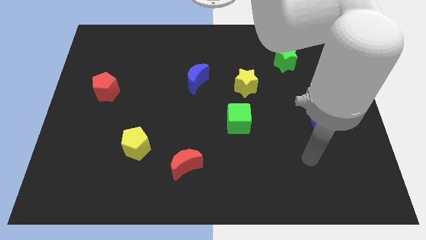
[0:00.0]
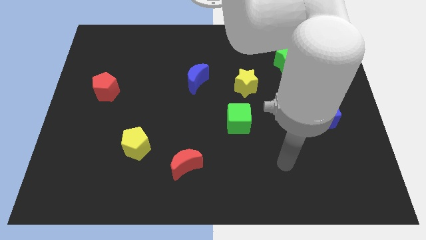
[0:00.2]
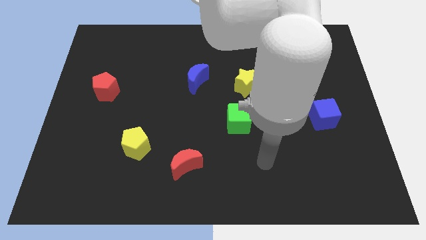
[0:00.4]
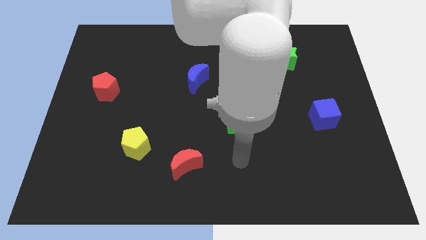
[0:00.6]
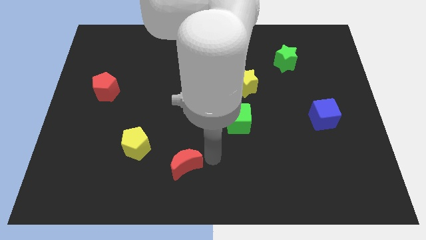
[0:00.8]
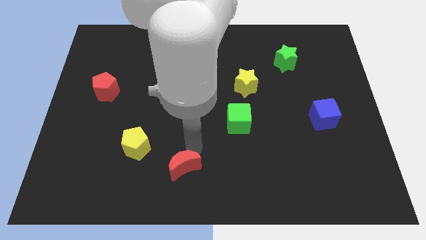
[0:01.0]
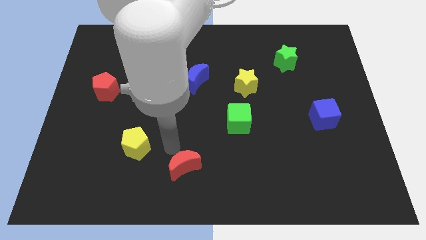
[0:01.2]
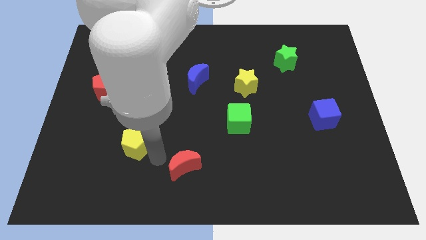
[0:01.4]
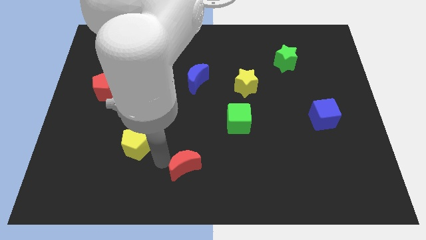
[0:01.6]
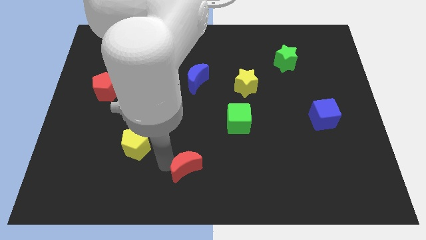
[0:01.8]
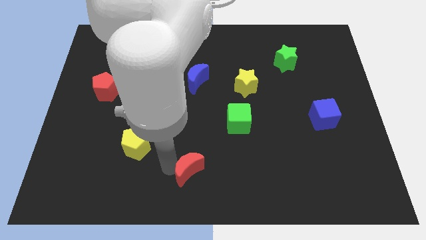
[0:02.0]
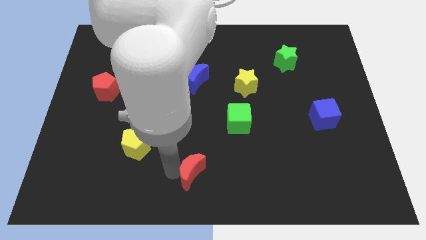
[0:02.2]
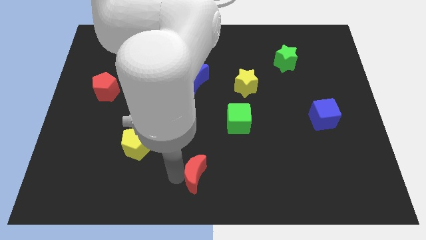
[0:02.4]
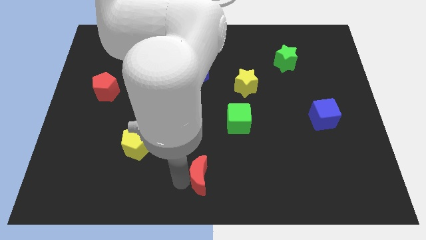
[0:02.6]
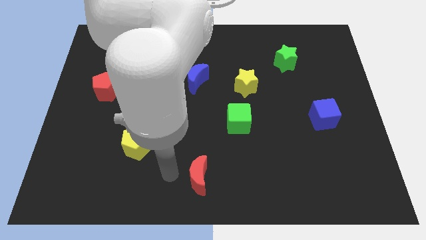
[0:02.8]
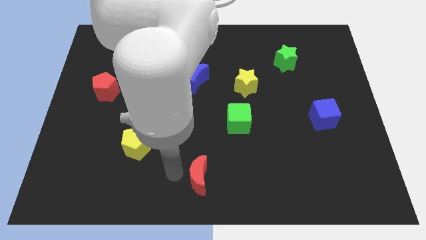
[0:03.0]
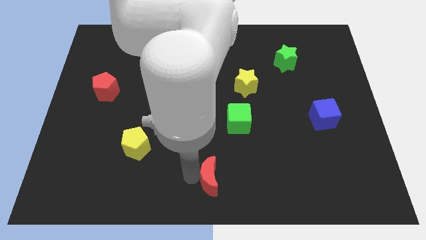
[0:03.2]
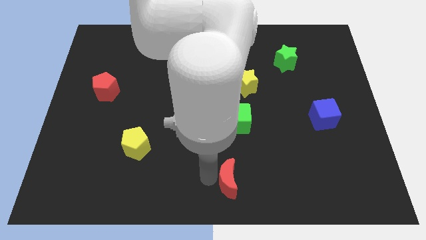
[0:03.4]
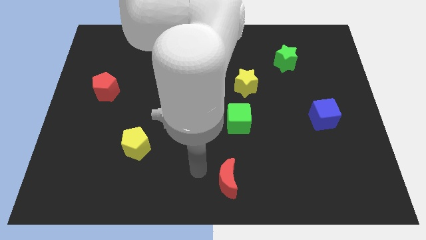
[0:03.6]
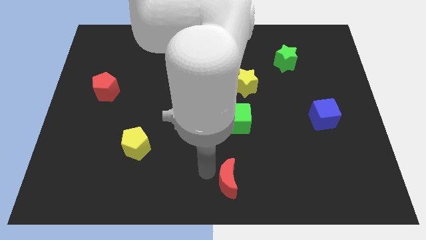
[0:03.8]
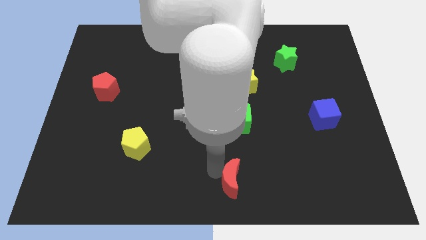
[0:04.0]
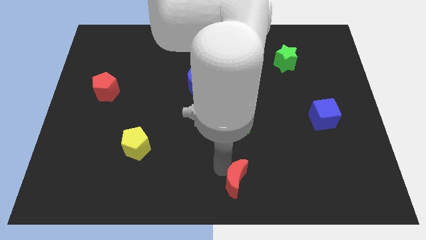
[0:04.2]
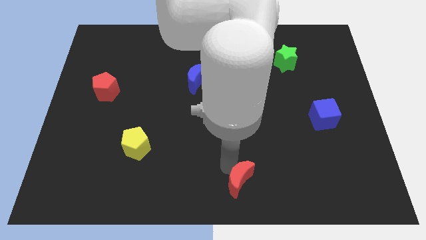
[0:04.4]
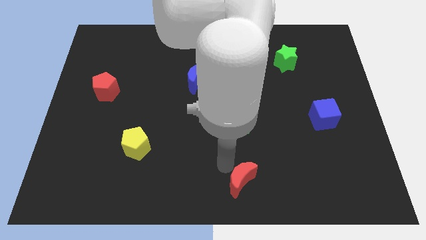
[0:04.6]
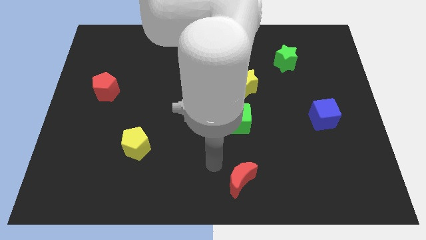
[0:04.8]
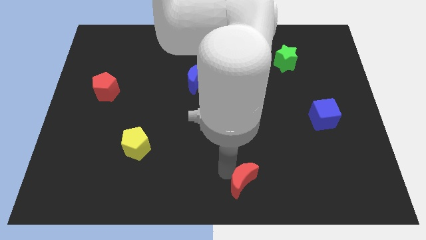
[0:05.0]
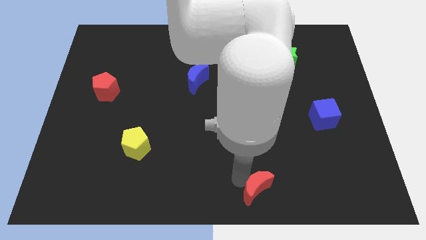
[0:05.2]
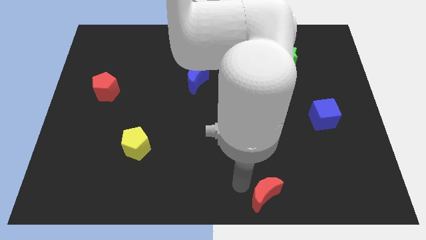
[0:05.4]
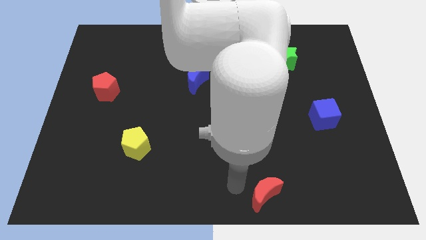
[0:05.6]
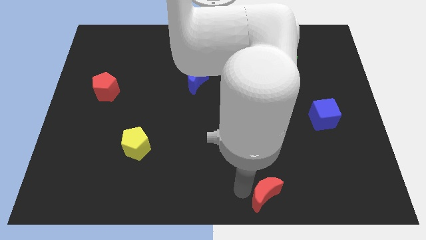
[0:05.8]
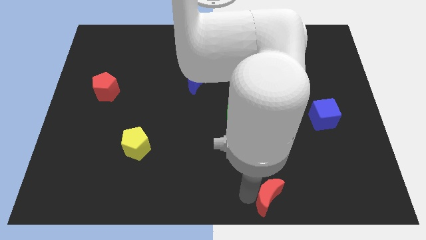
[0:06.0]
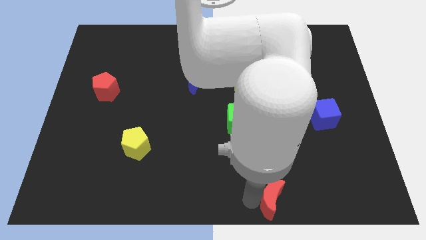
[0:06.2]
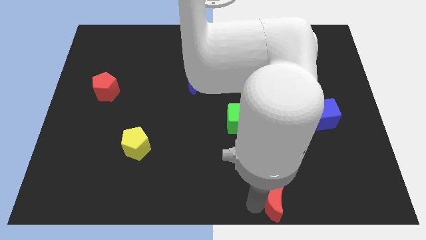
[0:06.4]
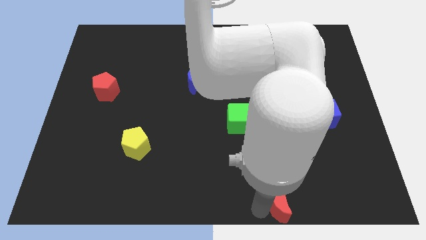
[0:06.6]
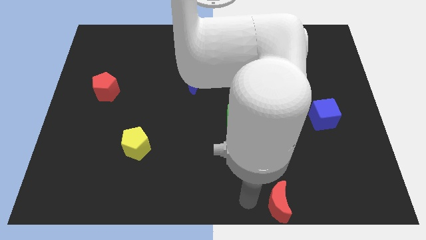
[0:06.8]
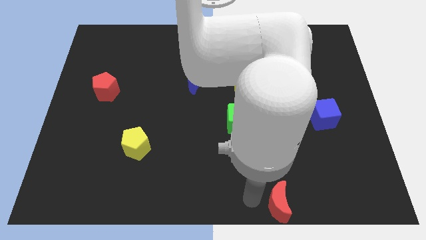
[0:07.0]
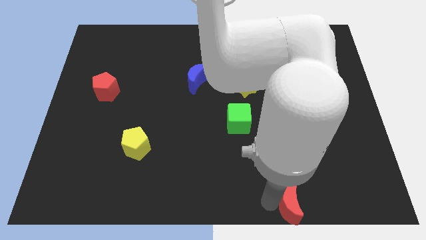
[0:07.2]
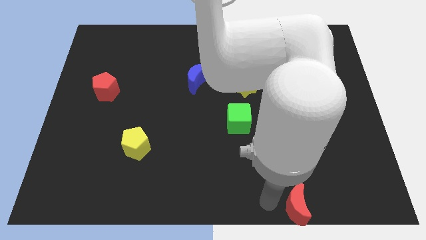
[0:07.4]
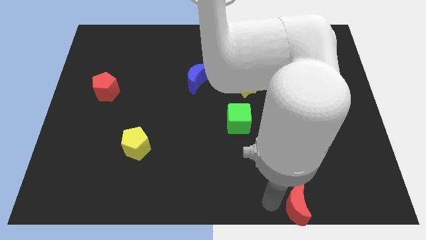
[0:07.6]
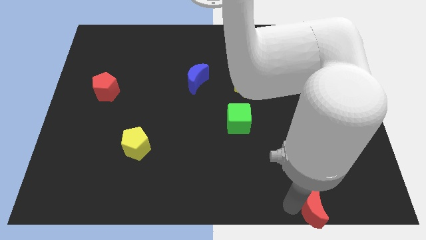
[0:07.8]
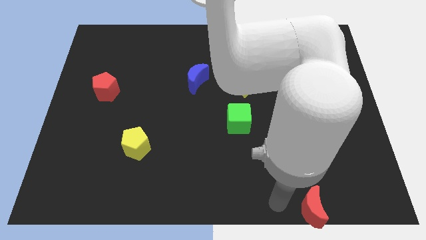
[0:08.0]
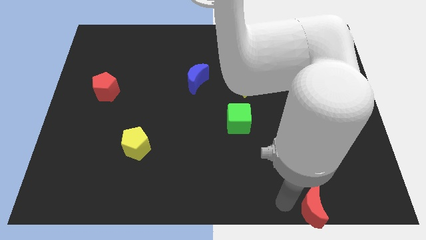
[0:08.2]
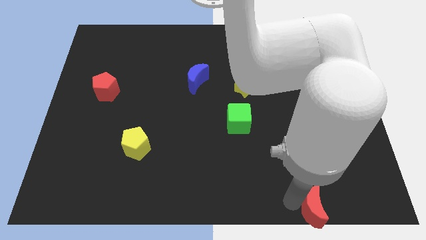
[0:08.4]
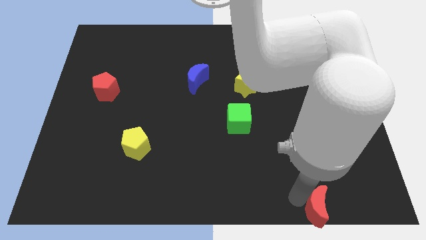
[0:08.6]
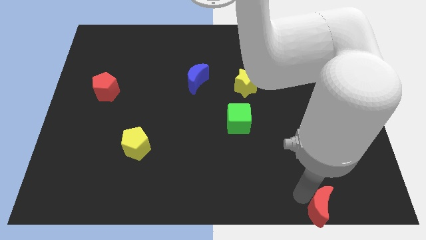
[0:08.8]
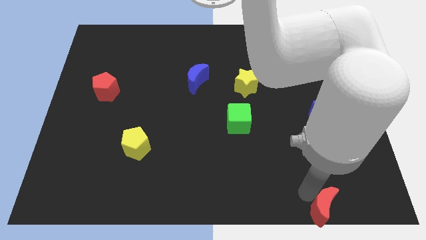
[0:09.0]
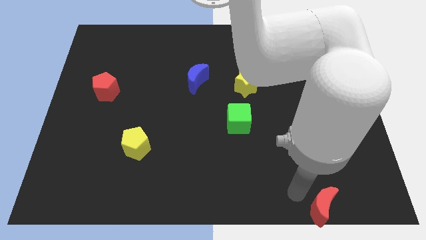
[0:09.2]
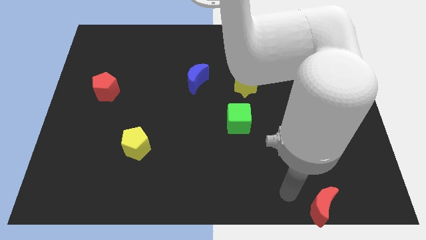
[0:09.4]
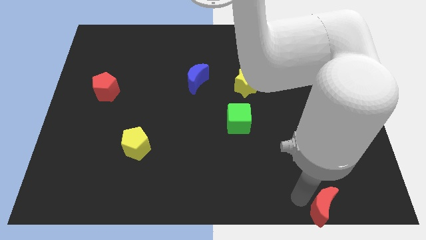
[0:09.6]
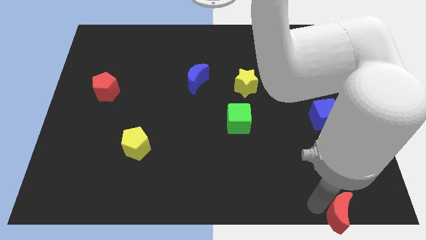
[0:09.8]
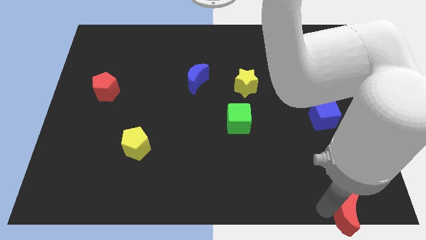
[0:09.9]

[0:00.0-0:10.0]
push the red moon to the lower right corner

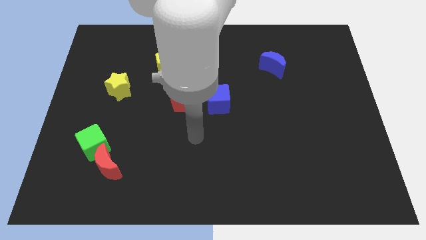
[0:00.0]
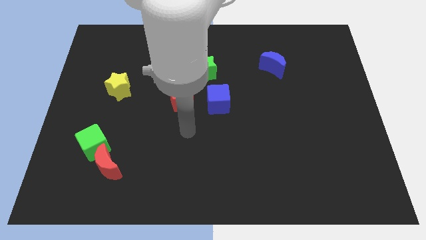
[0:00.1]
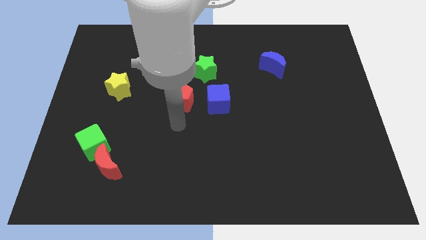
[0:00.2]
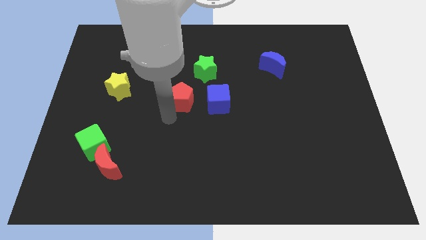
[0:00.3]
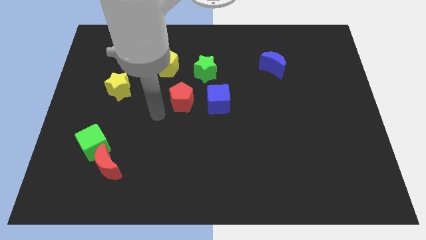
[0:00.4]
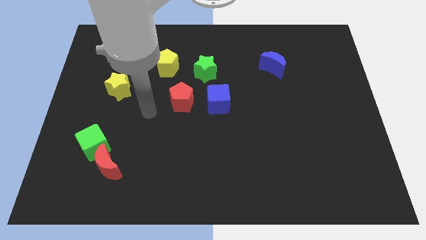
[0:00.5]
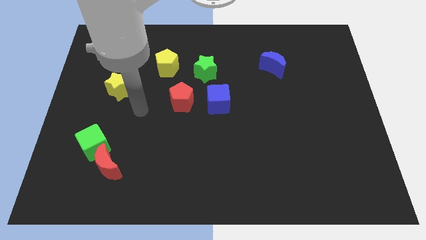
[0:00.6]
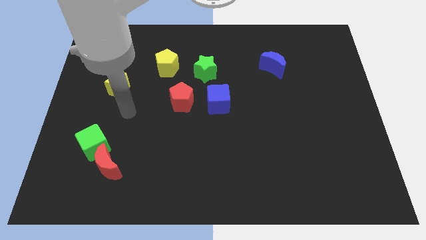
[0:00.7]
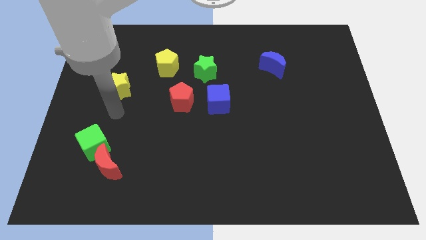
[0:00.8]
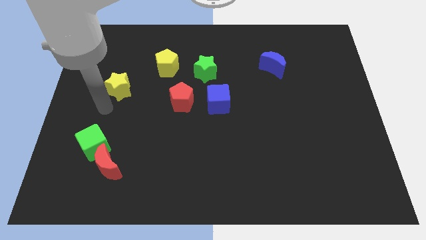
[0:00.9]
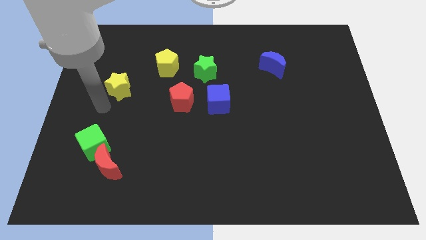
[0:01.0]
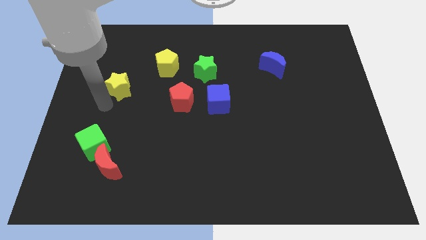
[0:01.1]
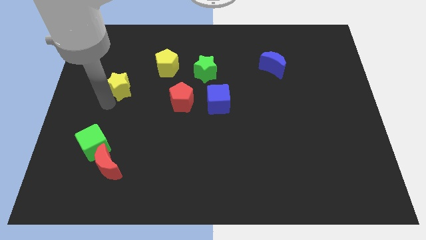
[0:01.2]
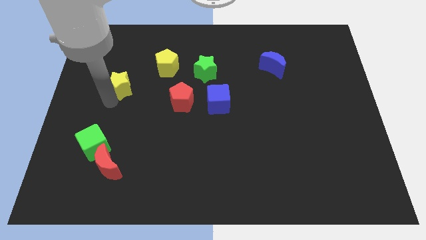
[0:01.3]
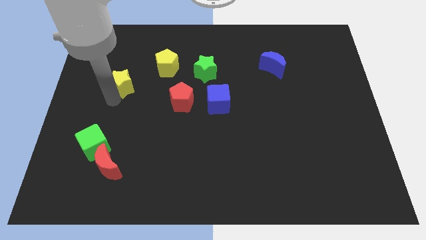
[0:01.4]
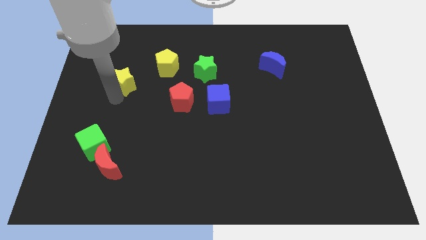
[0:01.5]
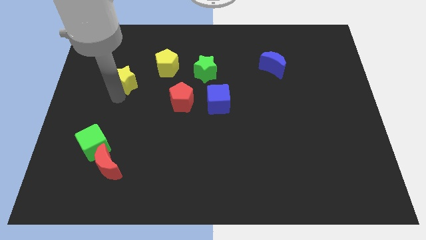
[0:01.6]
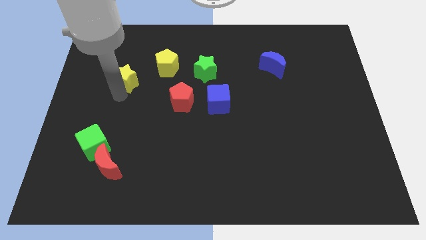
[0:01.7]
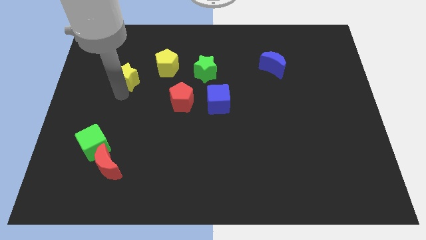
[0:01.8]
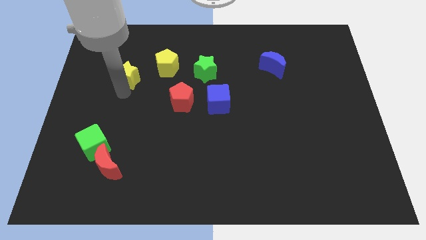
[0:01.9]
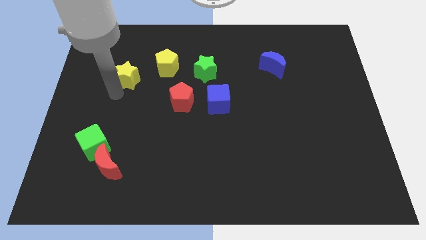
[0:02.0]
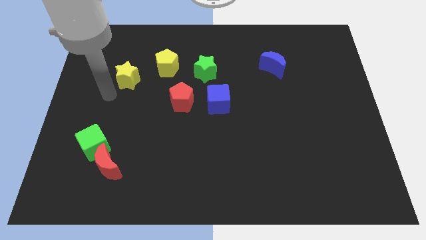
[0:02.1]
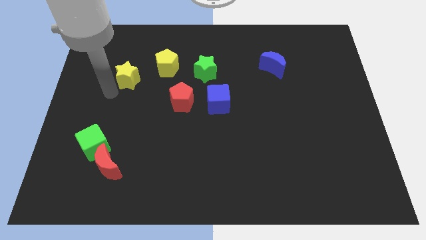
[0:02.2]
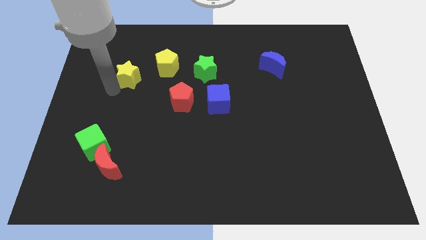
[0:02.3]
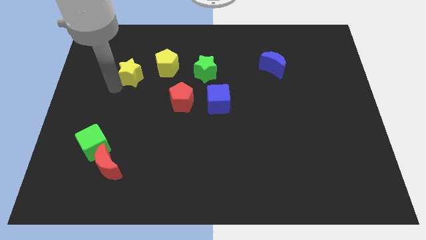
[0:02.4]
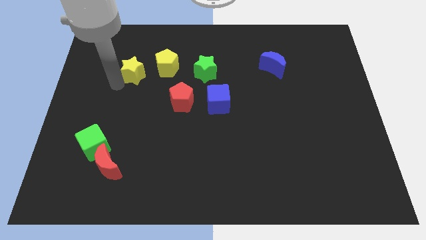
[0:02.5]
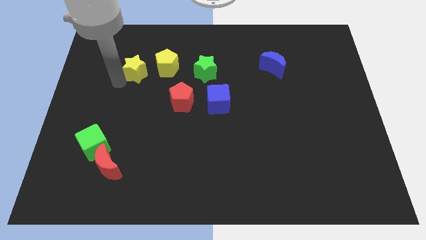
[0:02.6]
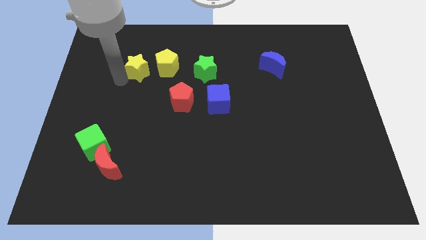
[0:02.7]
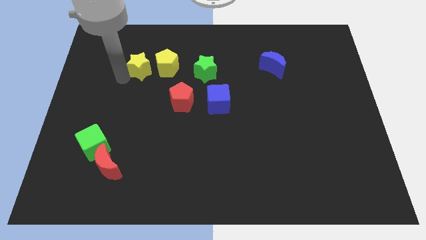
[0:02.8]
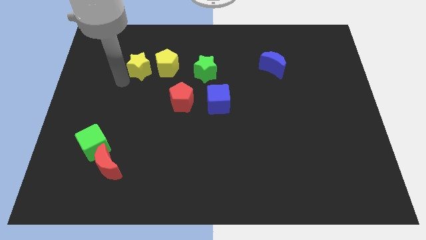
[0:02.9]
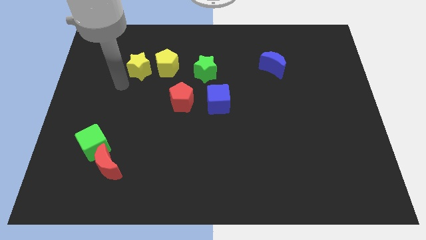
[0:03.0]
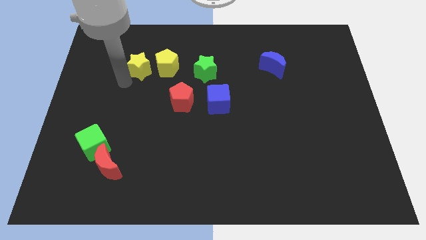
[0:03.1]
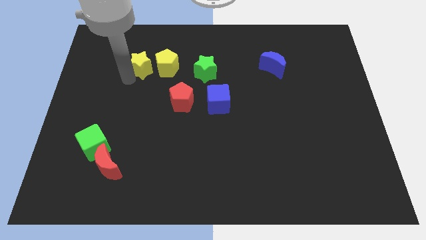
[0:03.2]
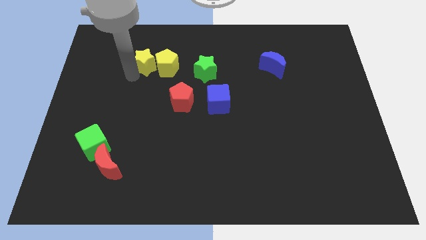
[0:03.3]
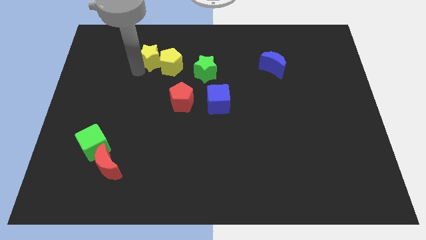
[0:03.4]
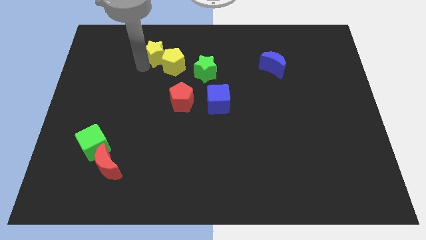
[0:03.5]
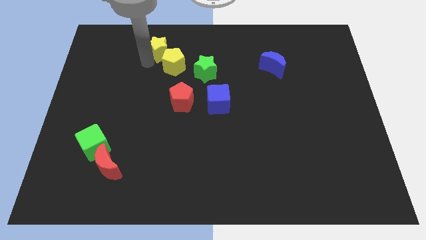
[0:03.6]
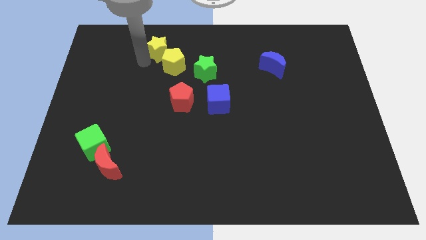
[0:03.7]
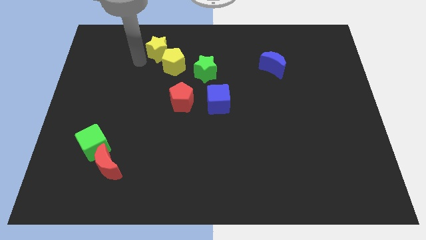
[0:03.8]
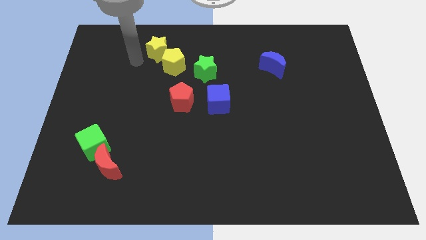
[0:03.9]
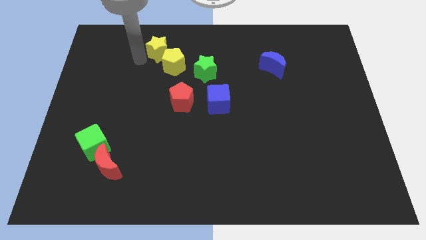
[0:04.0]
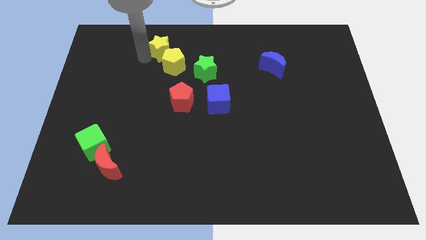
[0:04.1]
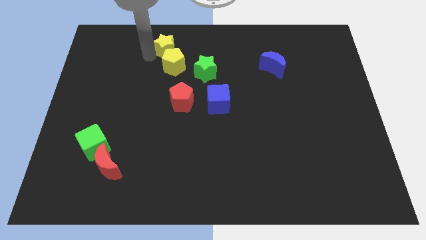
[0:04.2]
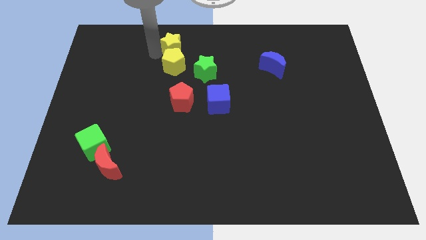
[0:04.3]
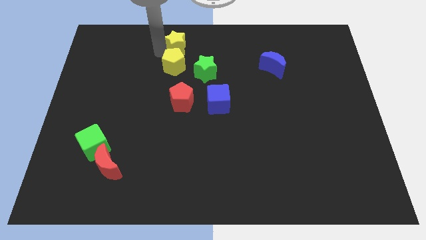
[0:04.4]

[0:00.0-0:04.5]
put the yellow star to the top
